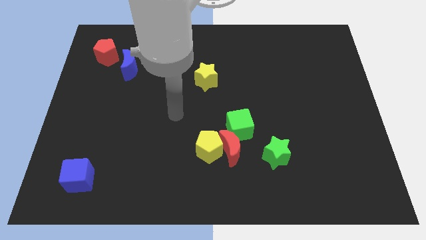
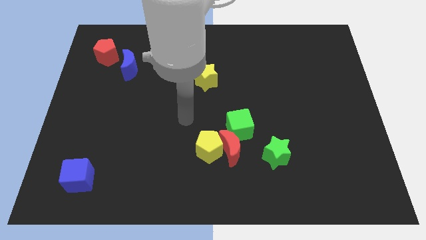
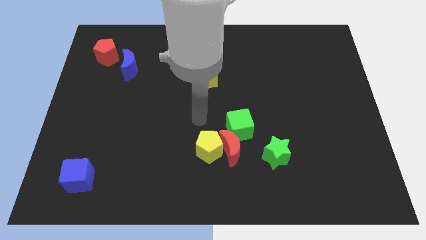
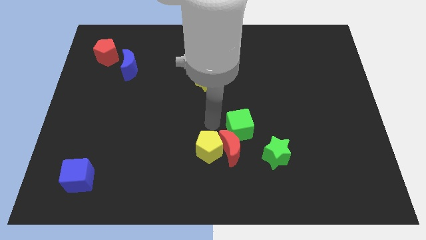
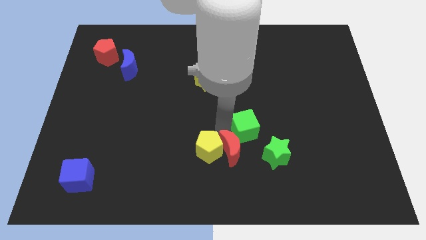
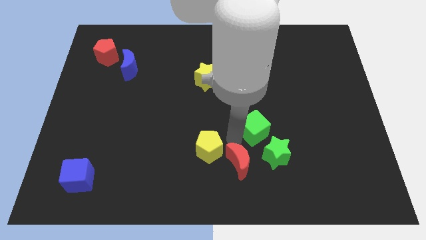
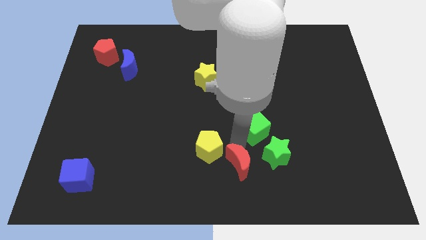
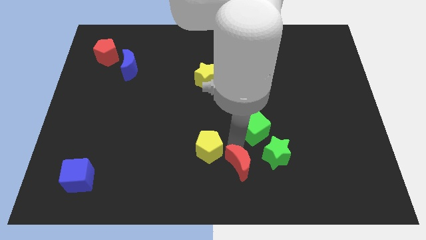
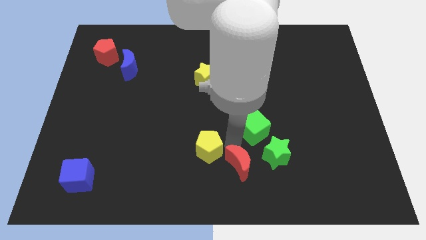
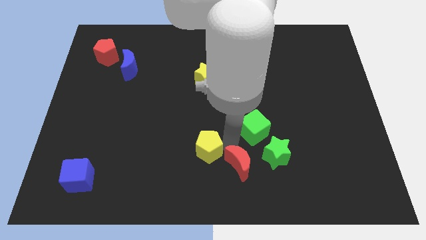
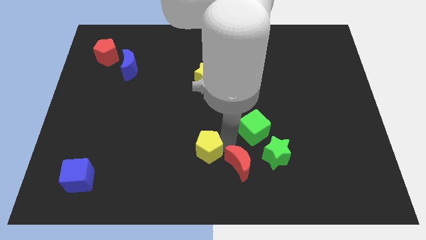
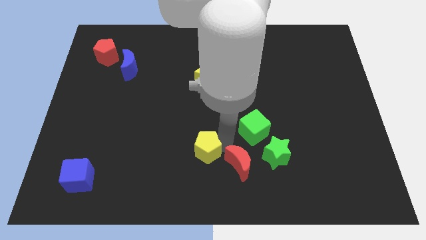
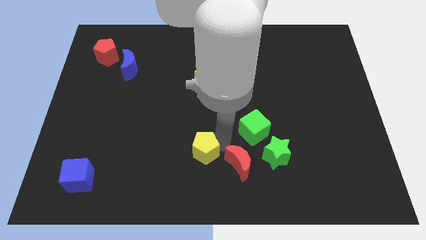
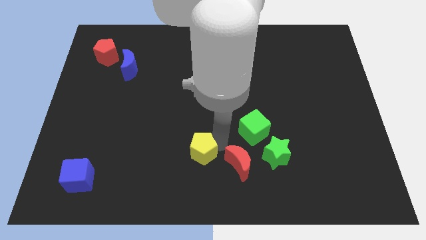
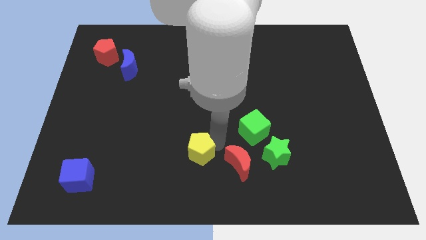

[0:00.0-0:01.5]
separate the yellow pentagon from the red moon and green cube

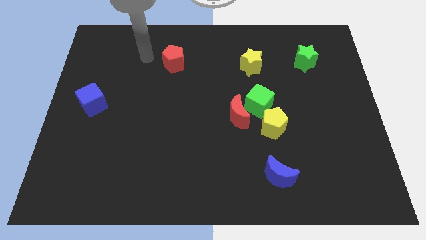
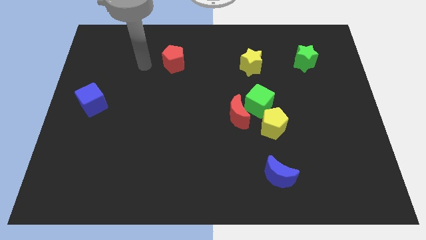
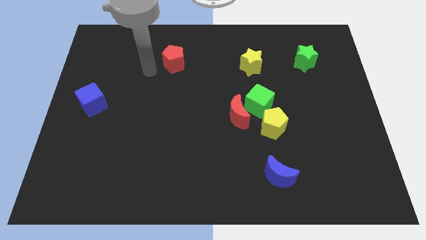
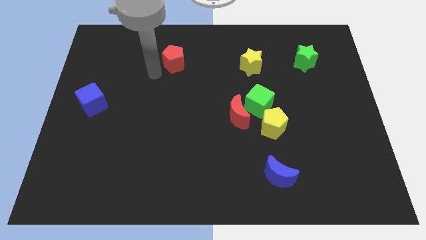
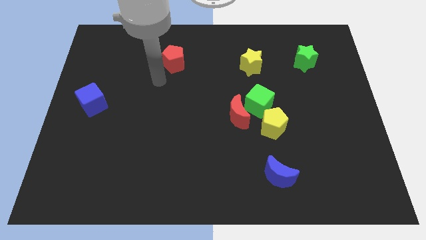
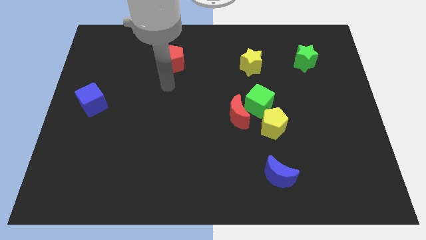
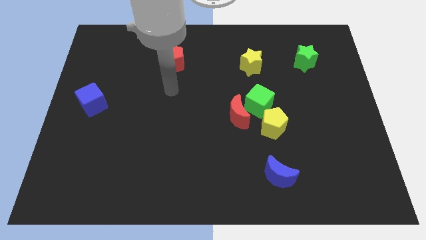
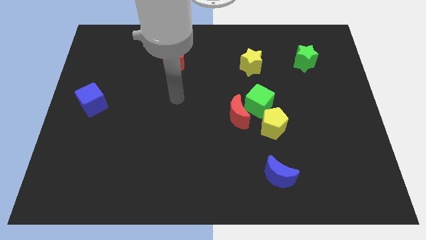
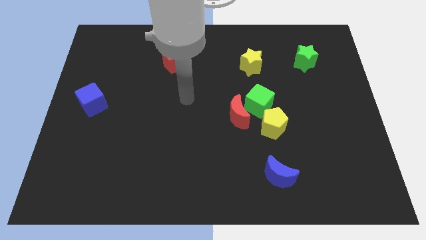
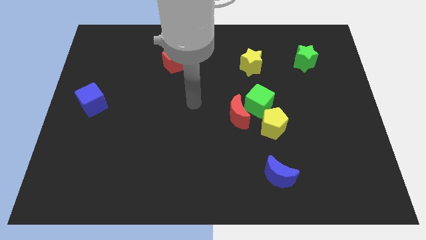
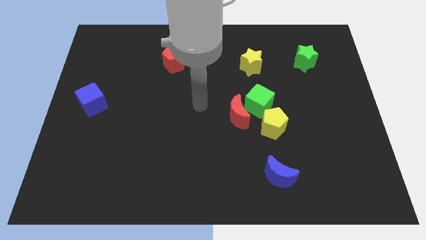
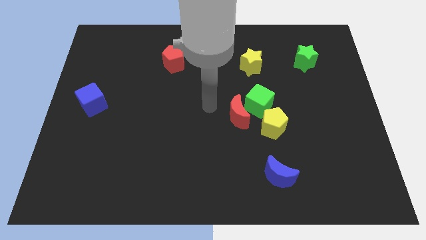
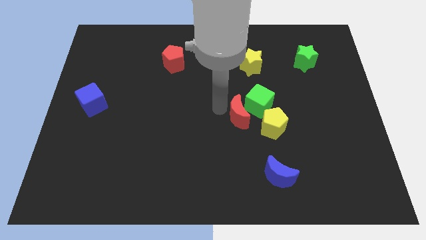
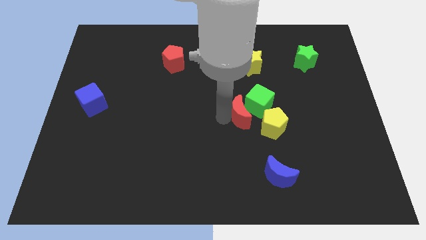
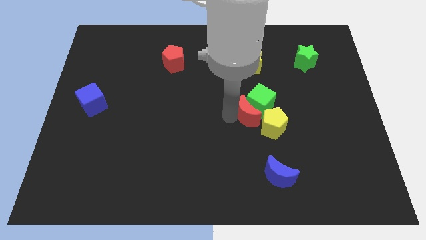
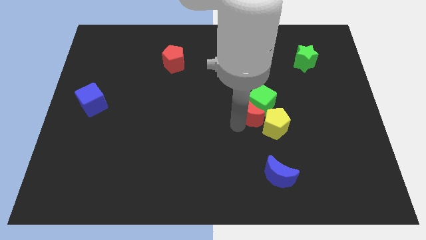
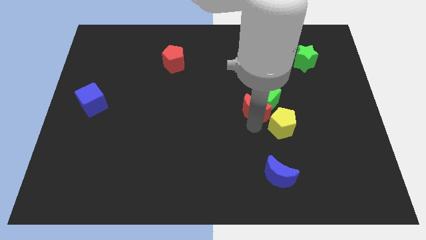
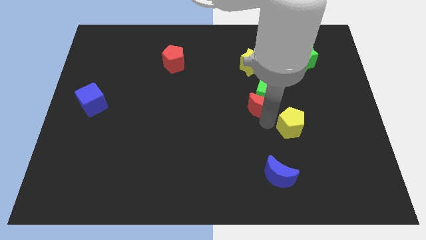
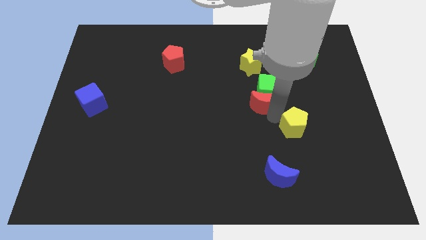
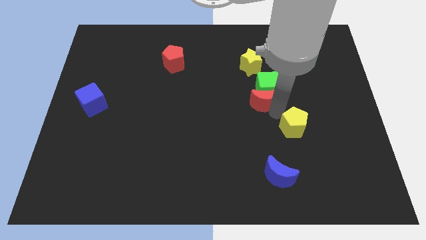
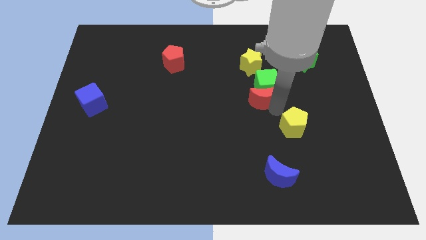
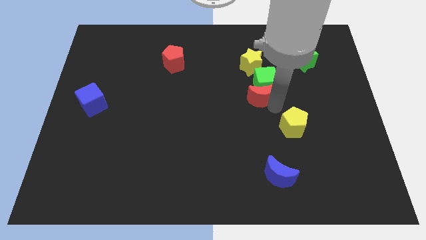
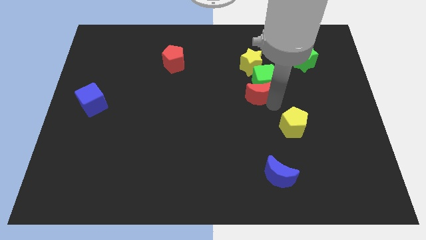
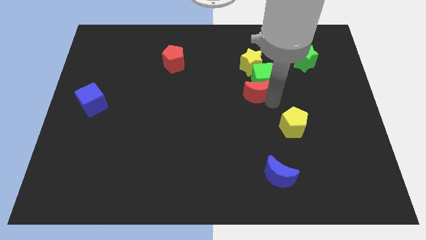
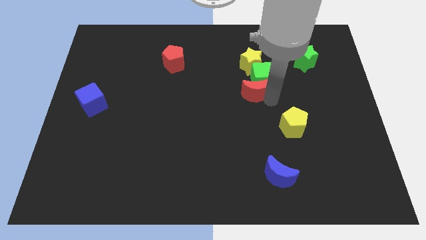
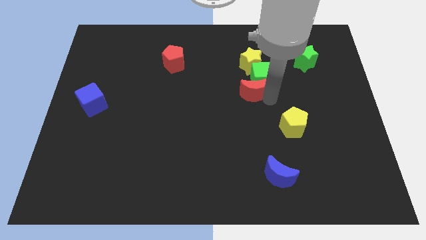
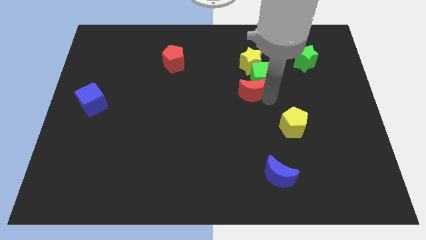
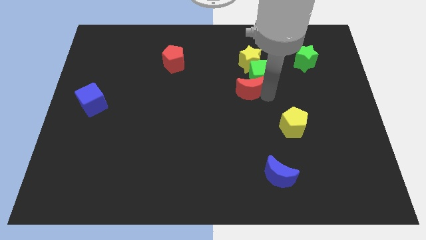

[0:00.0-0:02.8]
pull the green cube apart from the red moon and yellow pentagon

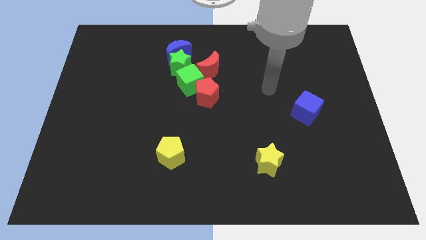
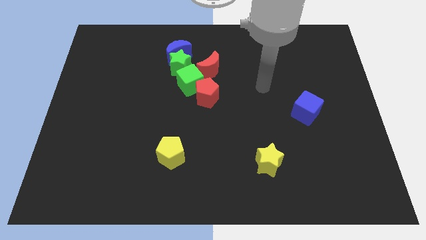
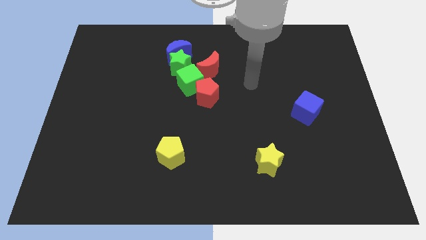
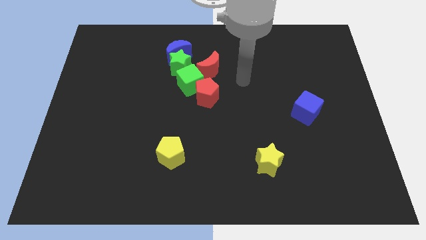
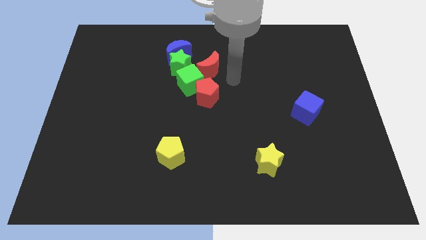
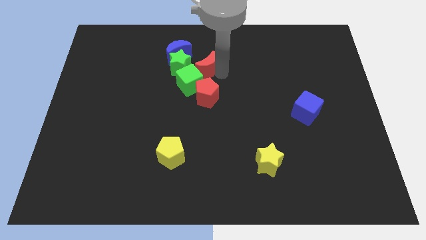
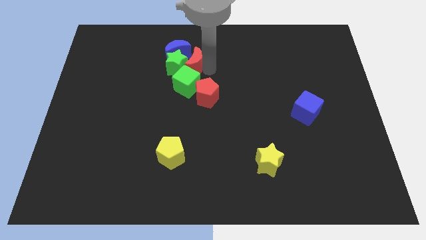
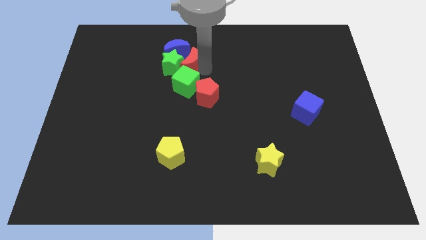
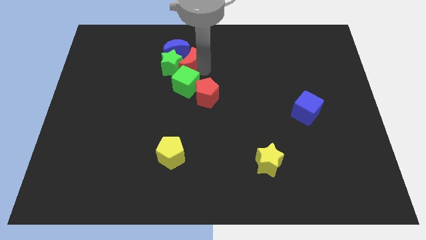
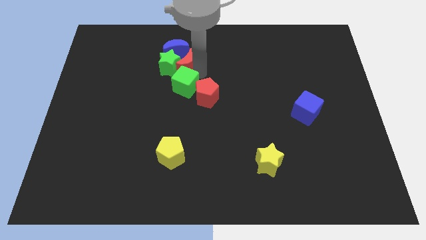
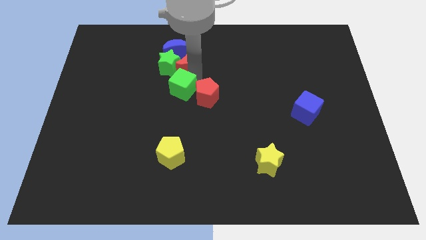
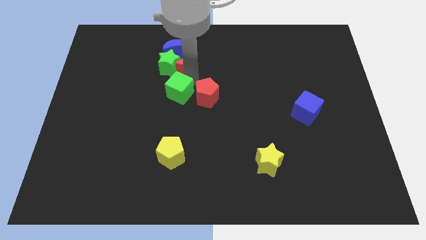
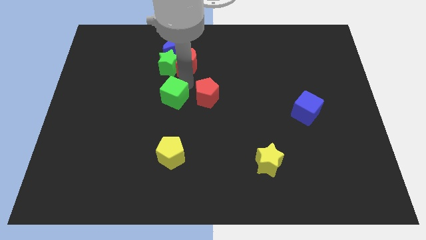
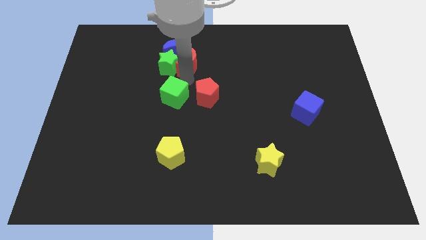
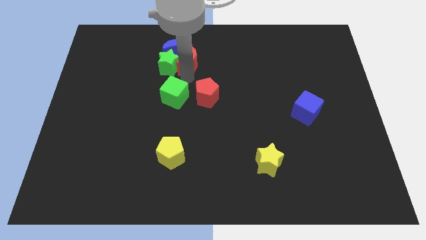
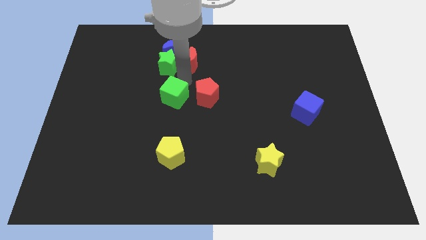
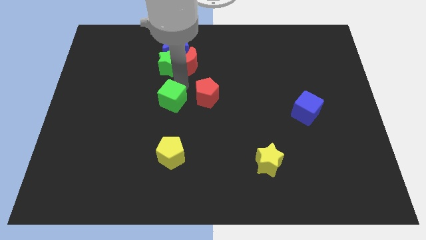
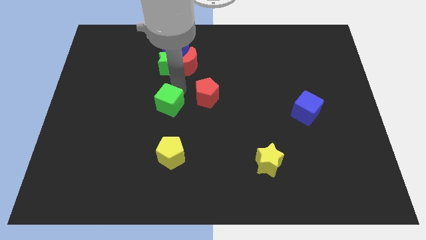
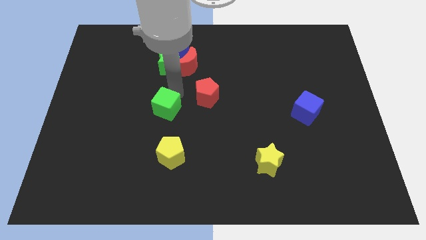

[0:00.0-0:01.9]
move the green cube away from the red pentagon, green star, and red moon

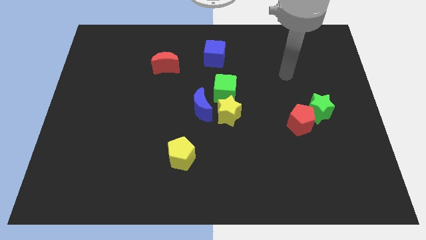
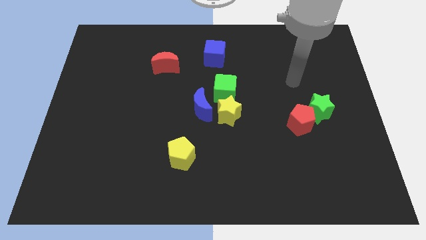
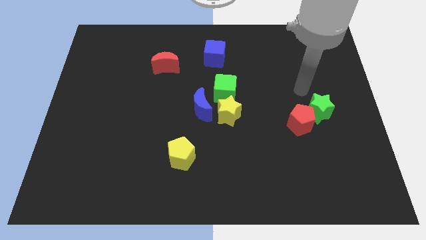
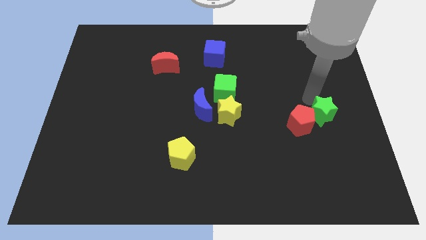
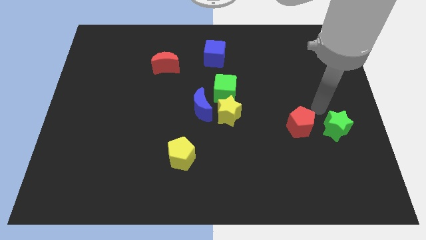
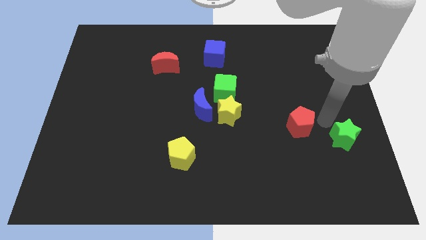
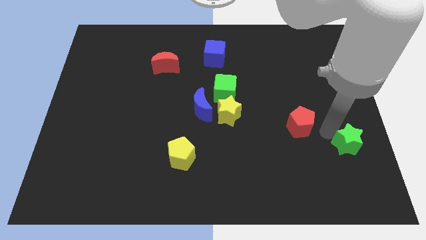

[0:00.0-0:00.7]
move the red pentagon away from the green star

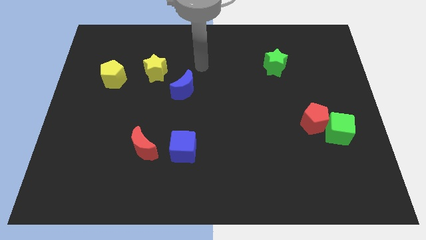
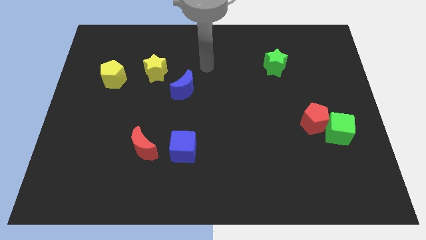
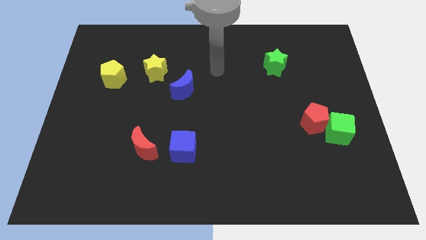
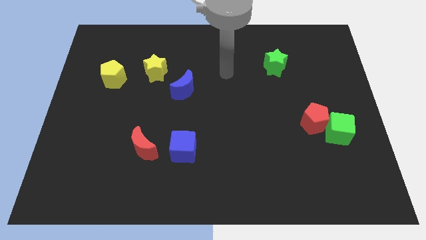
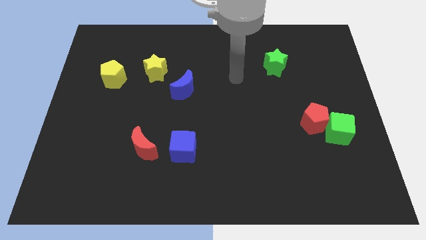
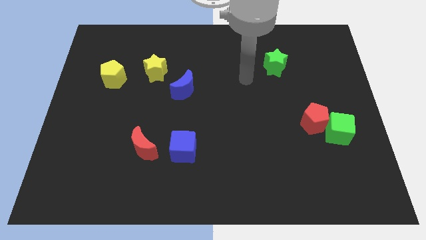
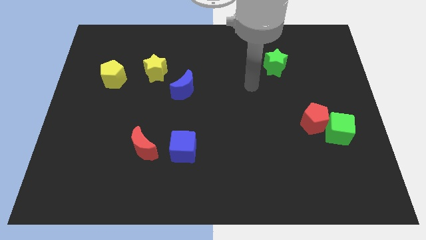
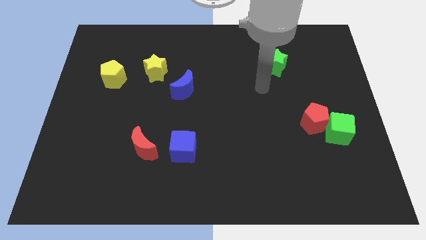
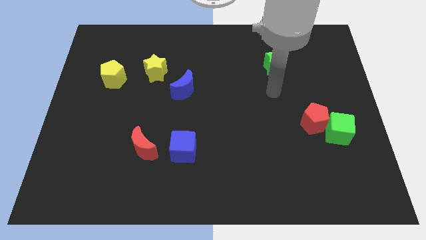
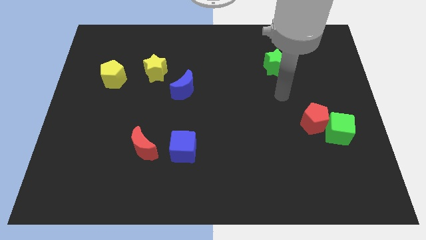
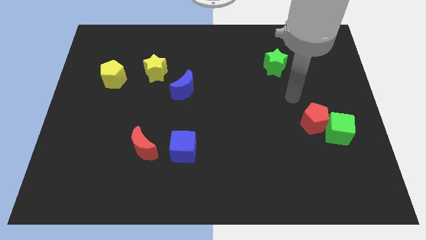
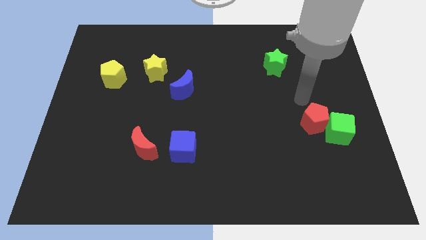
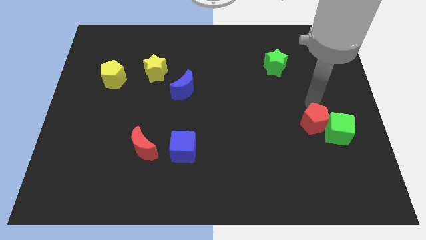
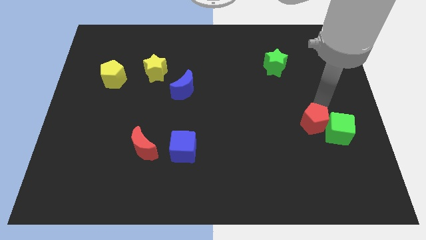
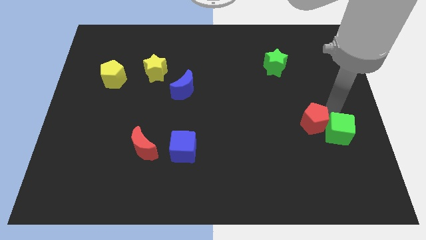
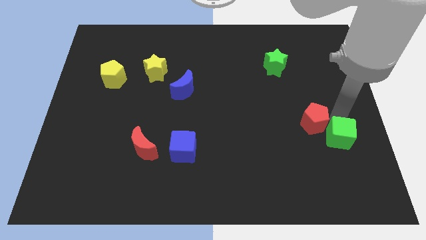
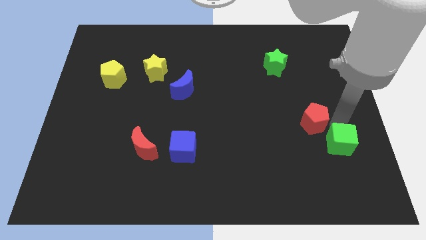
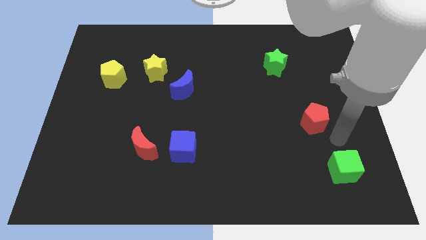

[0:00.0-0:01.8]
move the red pentagon away from the green cube

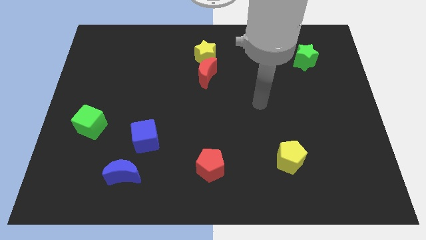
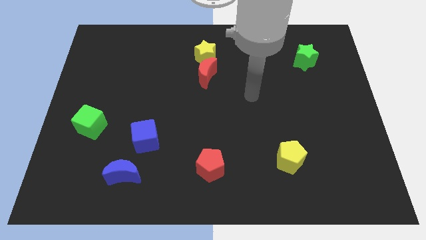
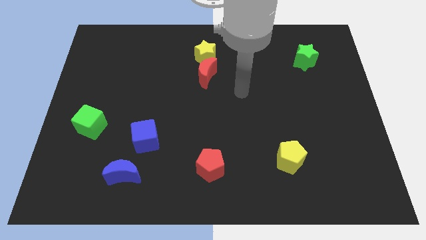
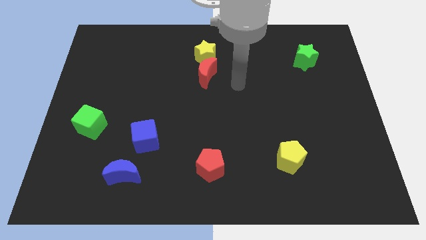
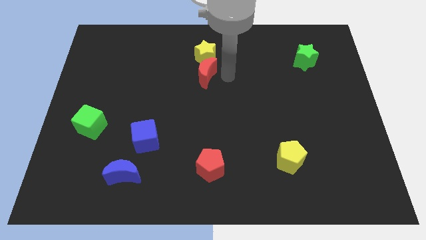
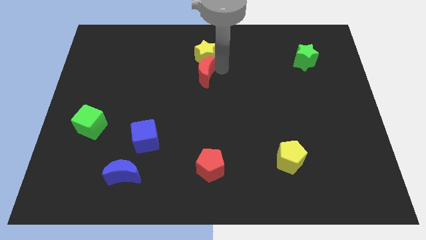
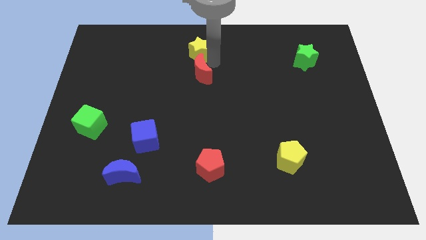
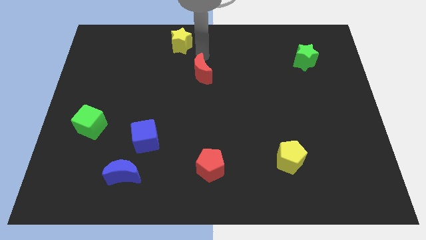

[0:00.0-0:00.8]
pull the red moon apart from the yellow star
